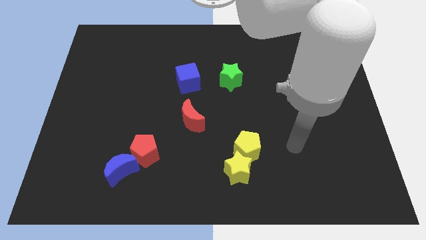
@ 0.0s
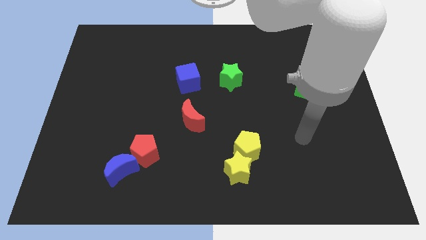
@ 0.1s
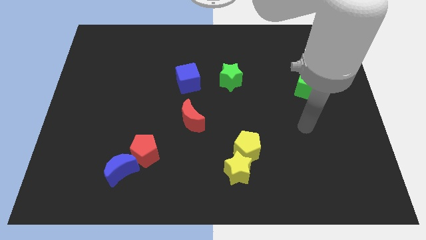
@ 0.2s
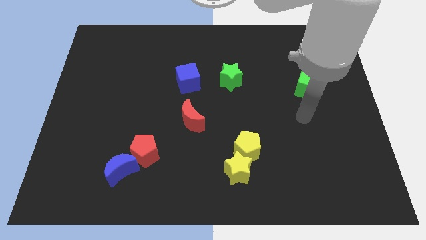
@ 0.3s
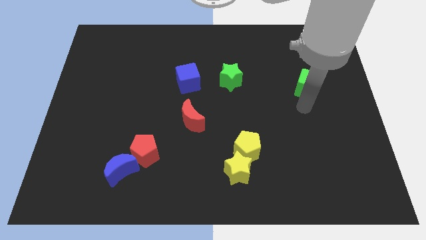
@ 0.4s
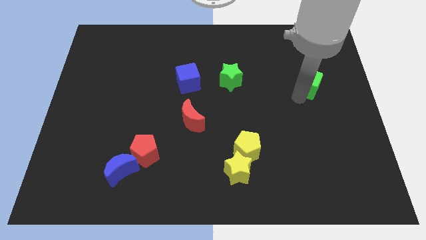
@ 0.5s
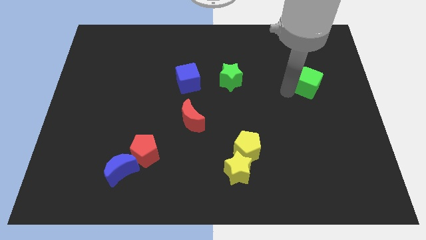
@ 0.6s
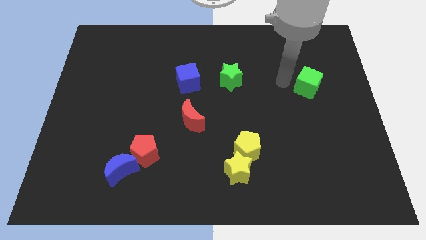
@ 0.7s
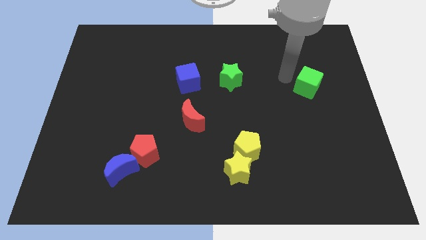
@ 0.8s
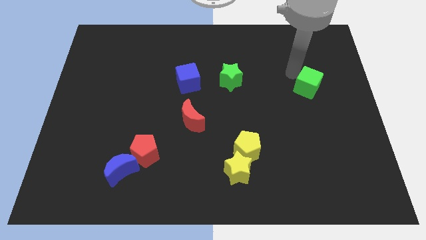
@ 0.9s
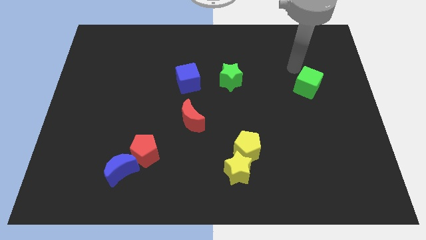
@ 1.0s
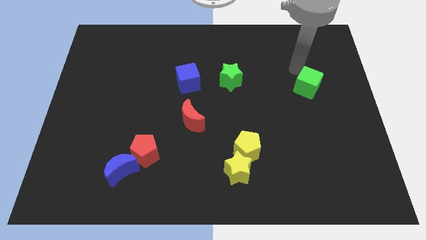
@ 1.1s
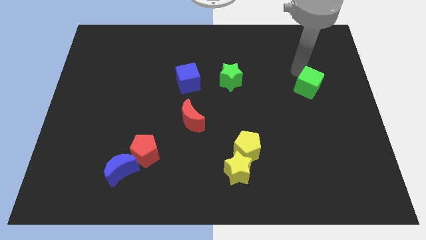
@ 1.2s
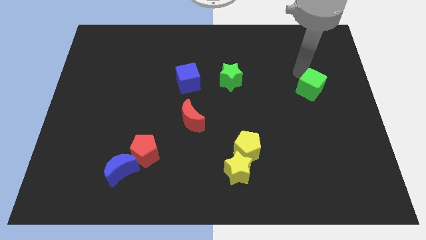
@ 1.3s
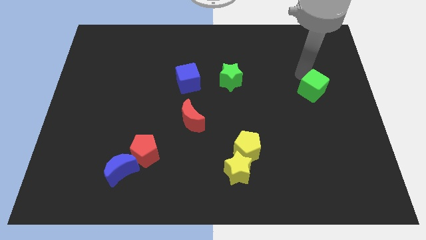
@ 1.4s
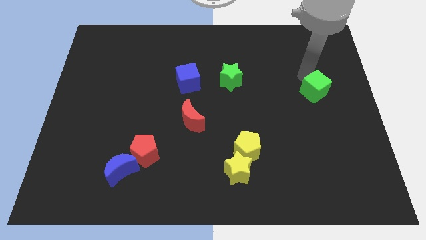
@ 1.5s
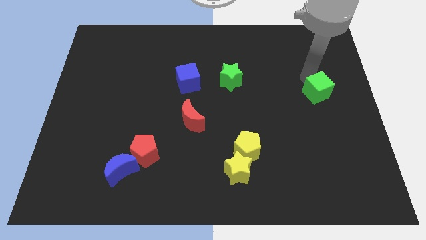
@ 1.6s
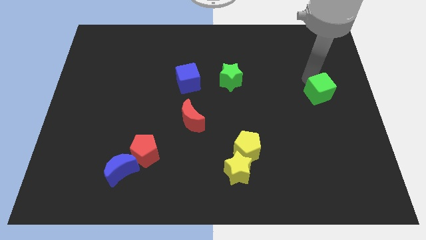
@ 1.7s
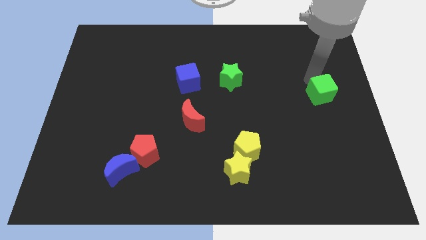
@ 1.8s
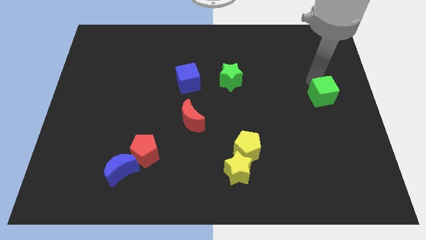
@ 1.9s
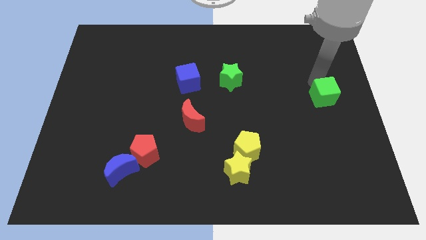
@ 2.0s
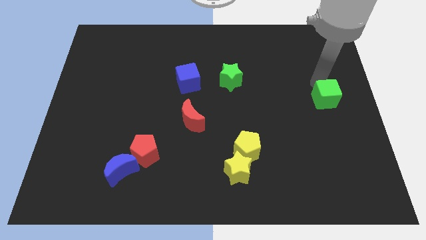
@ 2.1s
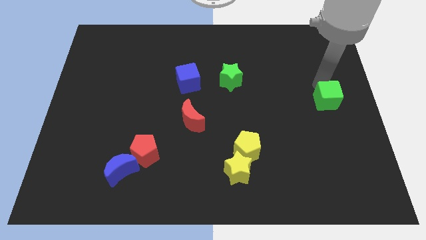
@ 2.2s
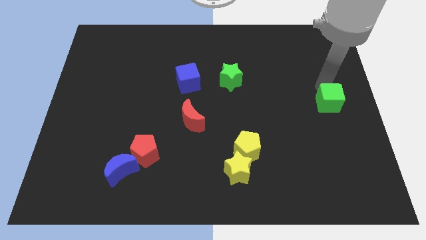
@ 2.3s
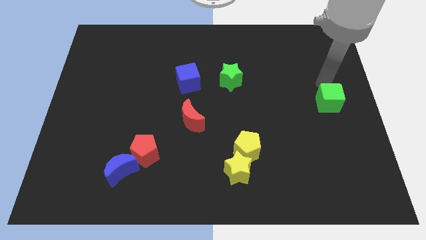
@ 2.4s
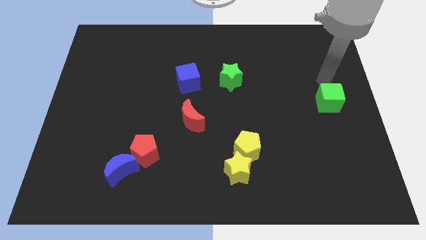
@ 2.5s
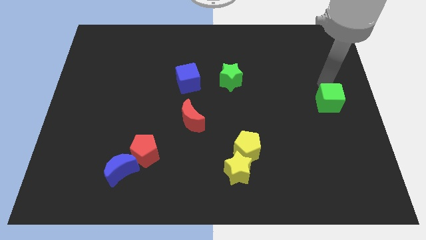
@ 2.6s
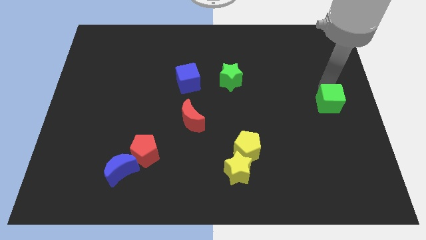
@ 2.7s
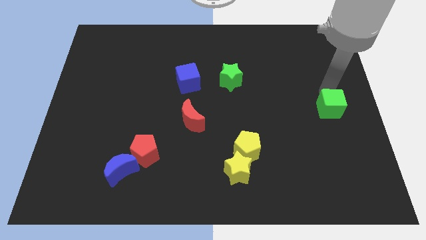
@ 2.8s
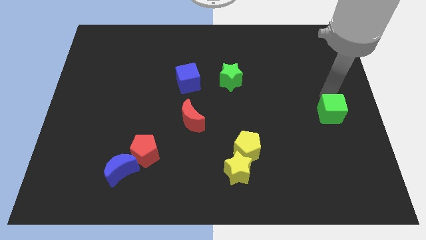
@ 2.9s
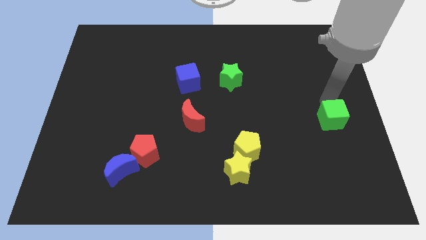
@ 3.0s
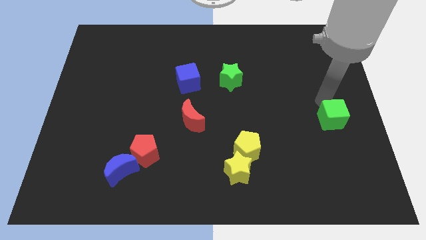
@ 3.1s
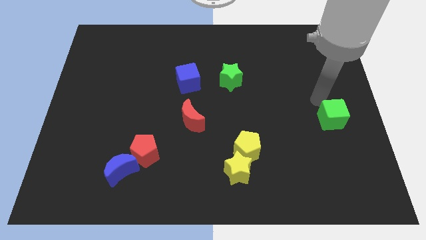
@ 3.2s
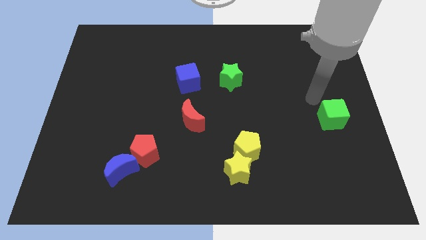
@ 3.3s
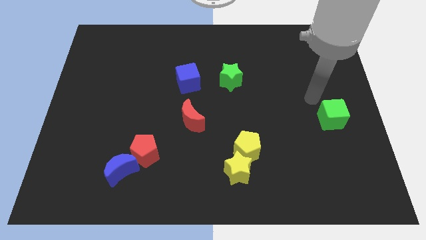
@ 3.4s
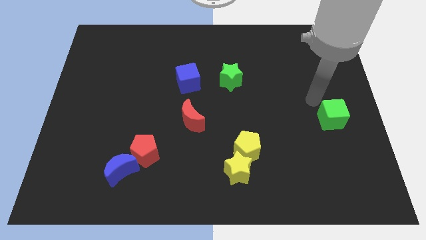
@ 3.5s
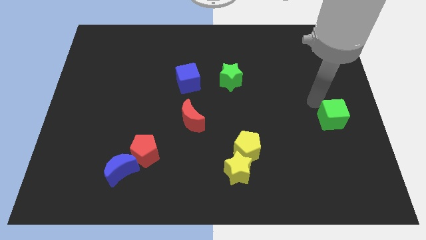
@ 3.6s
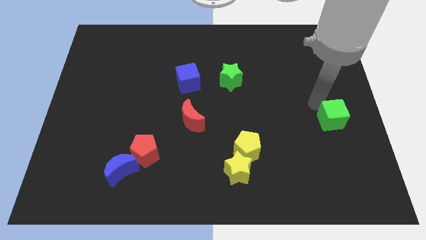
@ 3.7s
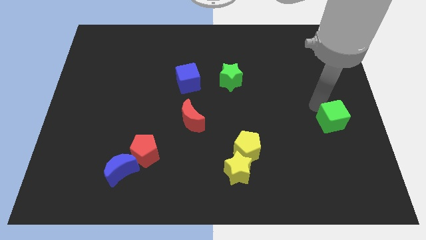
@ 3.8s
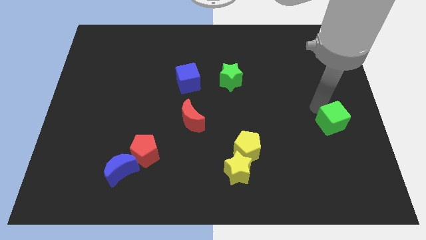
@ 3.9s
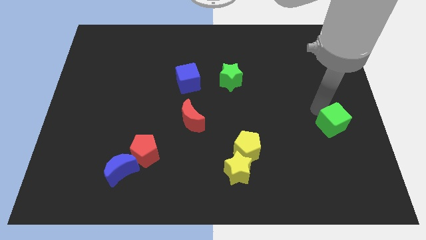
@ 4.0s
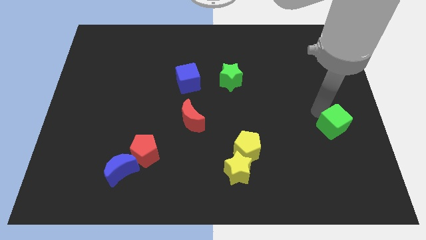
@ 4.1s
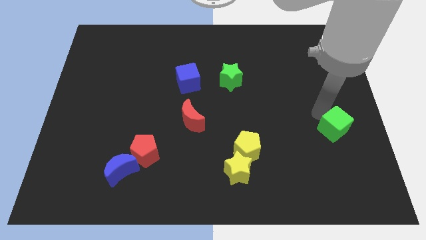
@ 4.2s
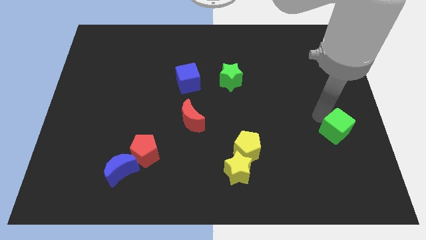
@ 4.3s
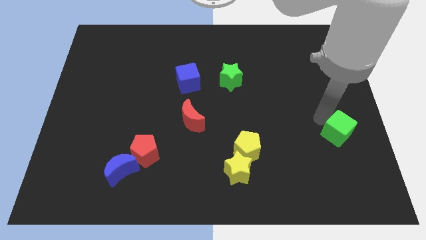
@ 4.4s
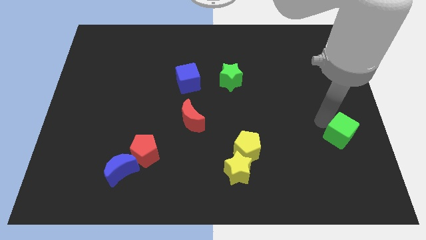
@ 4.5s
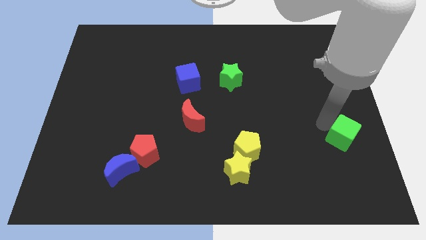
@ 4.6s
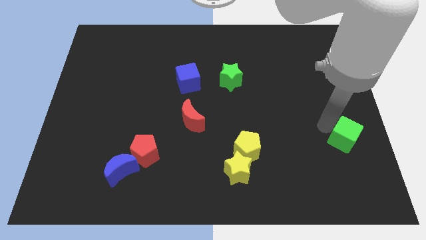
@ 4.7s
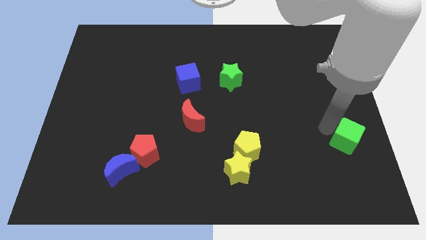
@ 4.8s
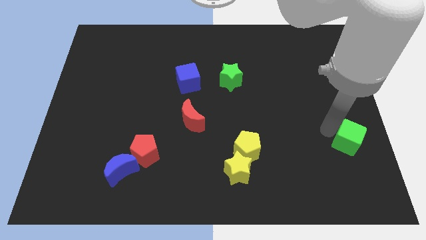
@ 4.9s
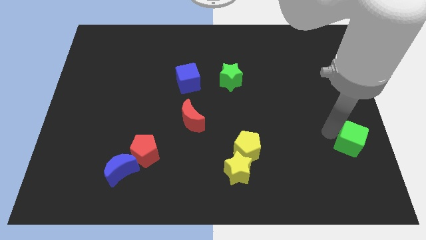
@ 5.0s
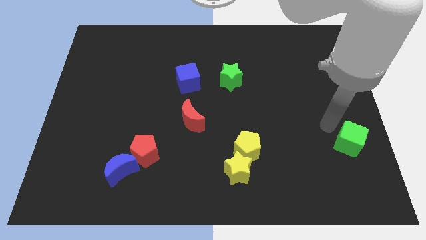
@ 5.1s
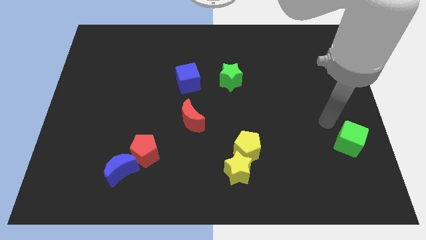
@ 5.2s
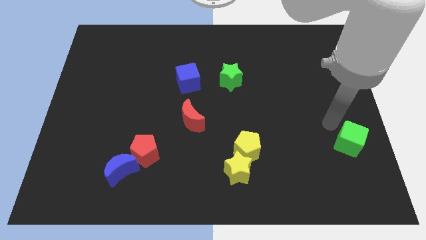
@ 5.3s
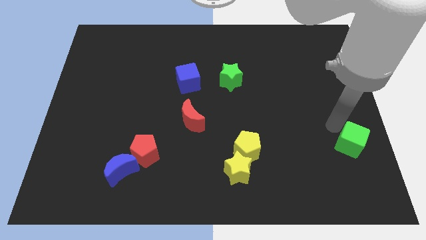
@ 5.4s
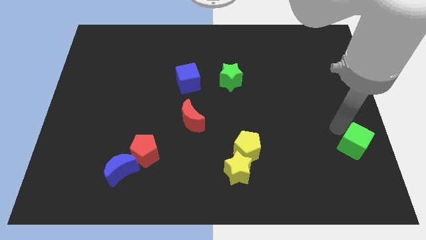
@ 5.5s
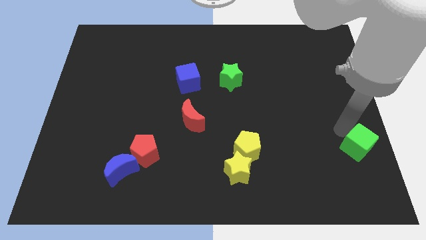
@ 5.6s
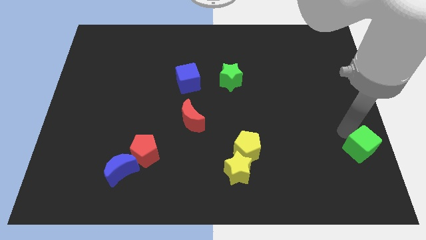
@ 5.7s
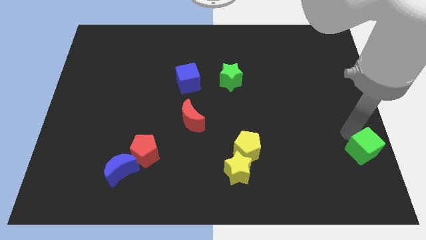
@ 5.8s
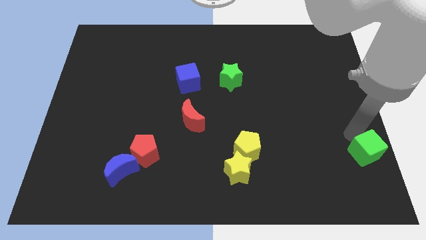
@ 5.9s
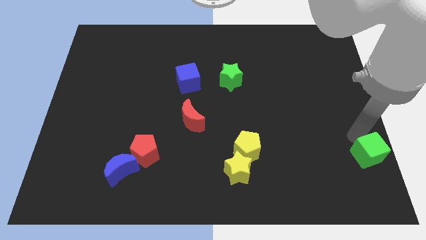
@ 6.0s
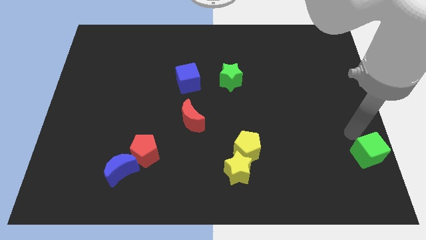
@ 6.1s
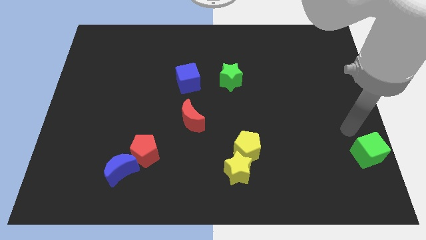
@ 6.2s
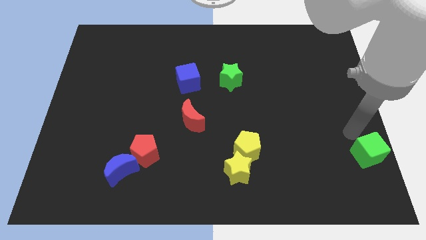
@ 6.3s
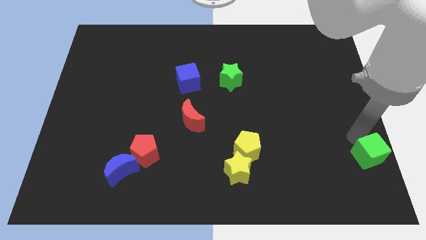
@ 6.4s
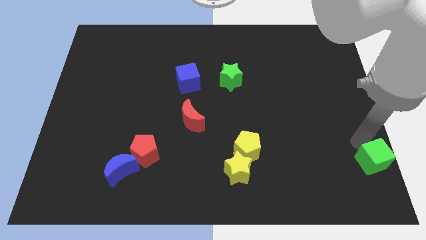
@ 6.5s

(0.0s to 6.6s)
push the green cube to the bottom right of the board
